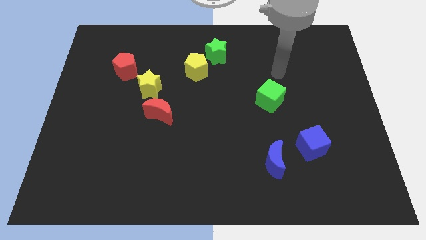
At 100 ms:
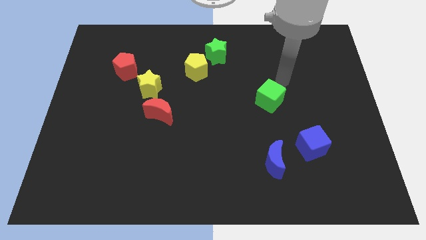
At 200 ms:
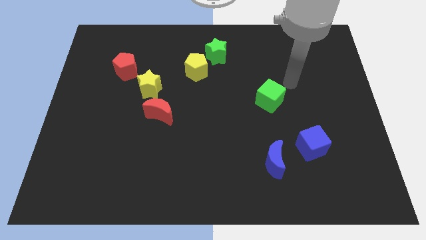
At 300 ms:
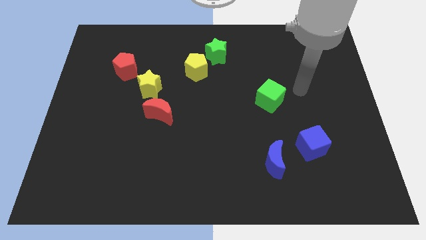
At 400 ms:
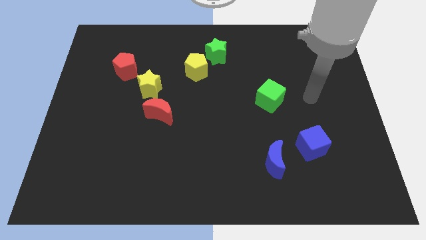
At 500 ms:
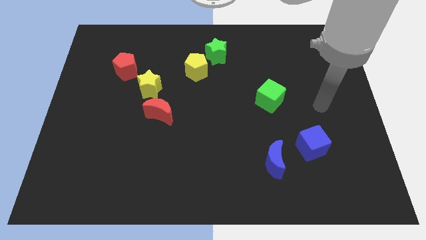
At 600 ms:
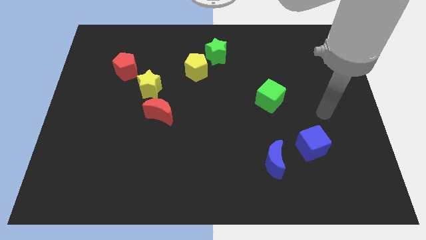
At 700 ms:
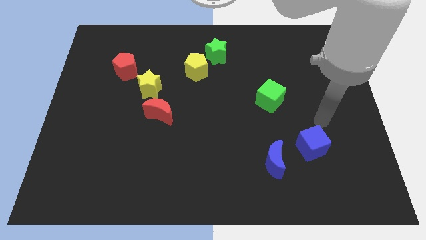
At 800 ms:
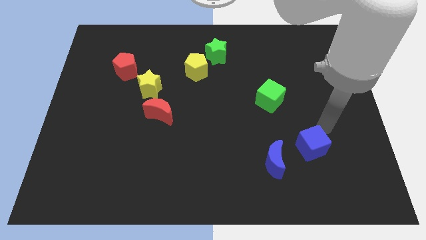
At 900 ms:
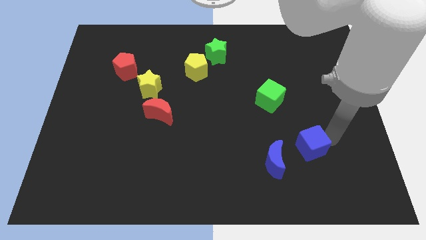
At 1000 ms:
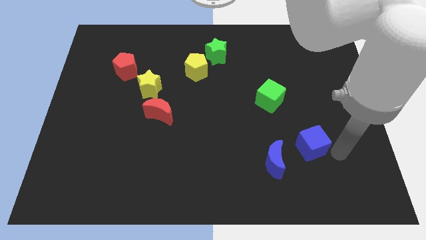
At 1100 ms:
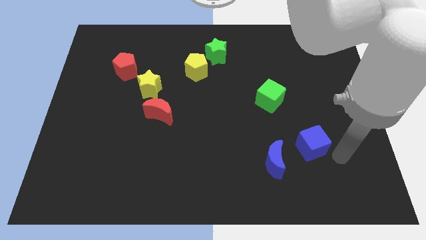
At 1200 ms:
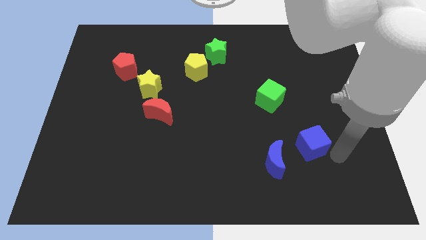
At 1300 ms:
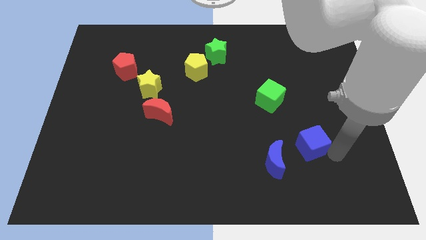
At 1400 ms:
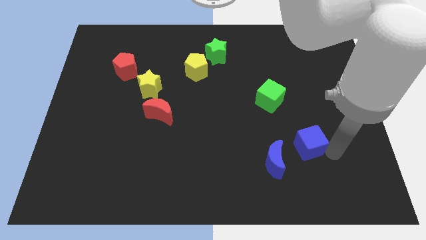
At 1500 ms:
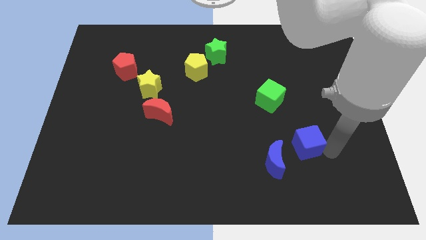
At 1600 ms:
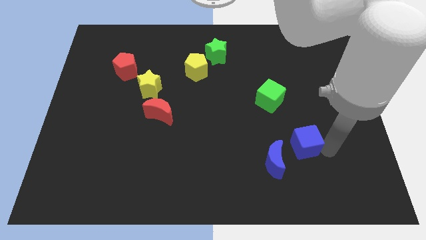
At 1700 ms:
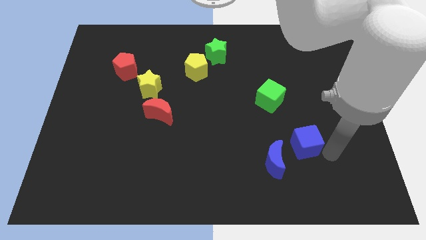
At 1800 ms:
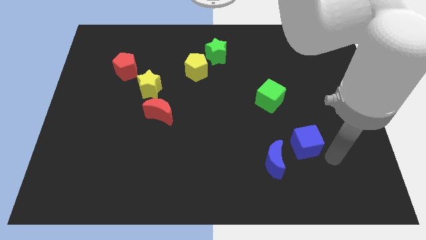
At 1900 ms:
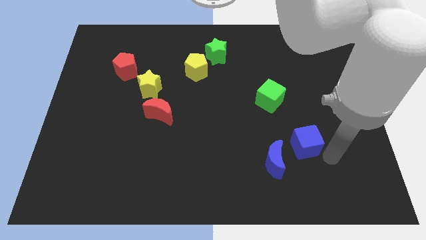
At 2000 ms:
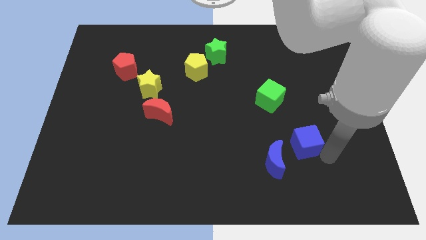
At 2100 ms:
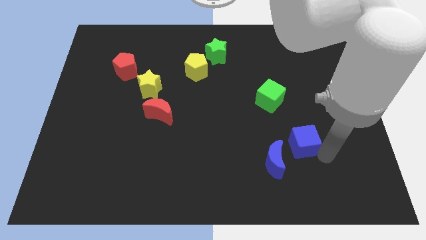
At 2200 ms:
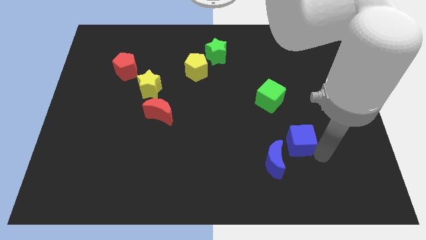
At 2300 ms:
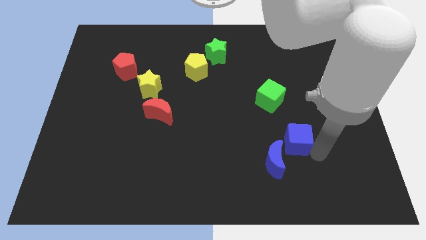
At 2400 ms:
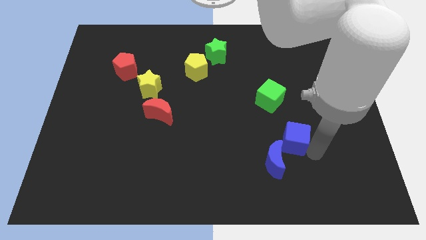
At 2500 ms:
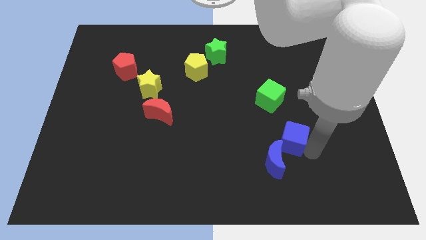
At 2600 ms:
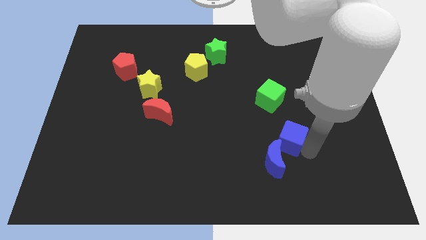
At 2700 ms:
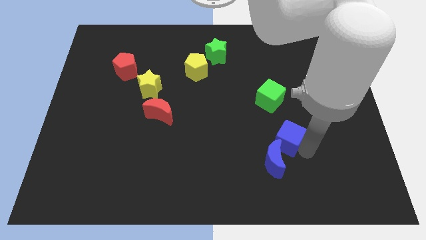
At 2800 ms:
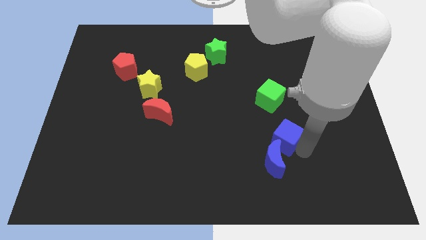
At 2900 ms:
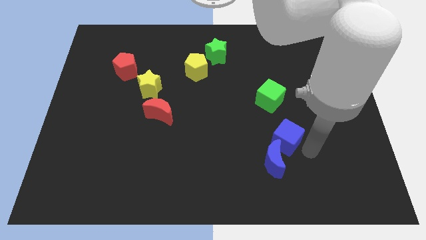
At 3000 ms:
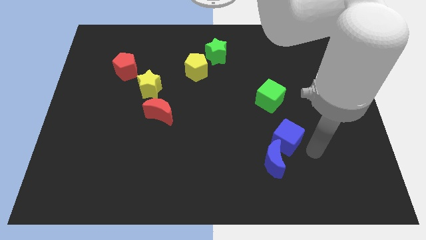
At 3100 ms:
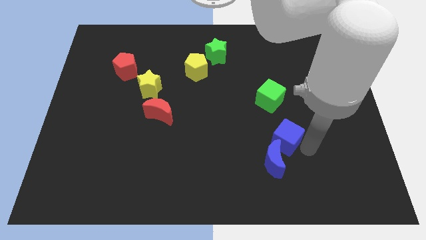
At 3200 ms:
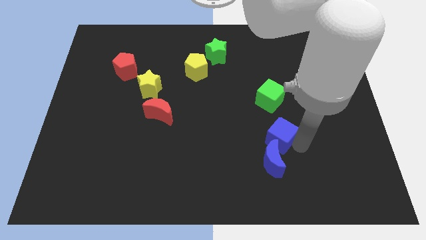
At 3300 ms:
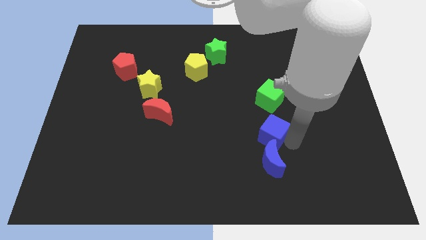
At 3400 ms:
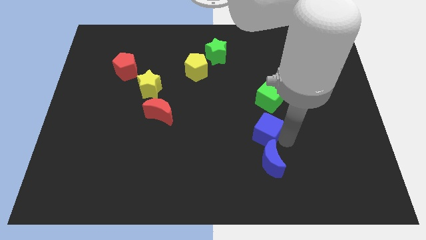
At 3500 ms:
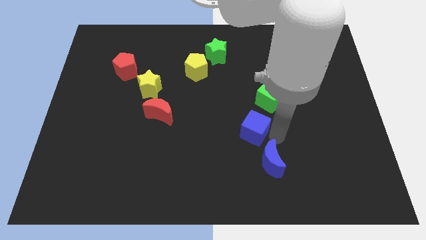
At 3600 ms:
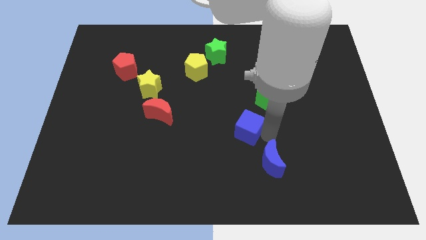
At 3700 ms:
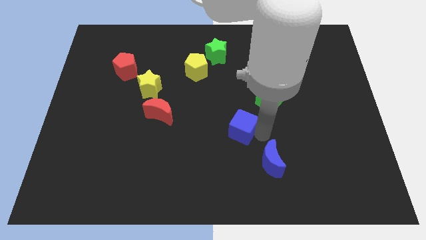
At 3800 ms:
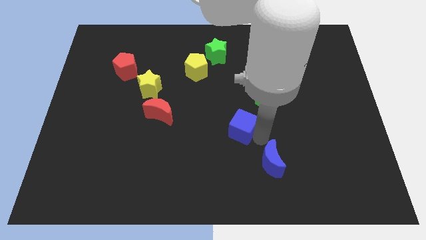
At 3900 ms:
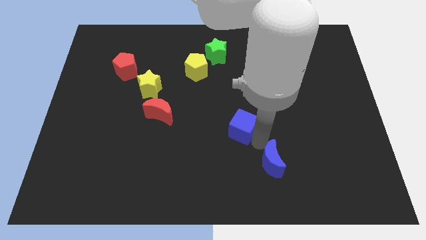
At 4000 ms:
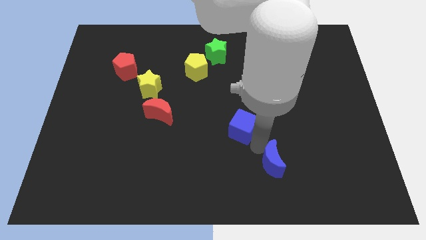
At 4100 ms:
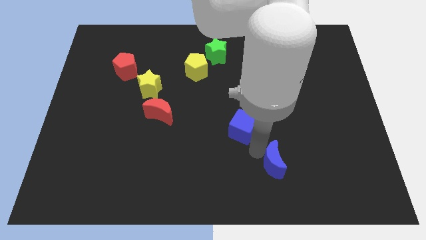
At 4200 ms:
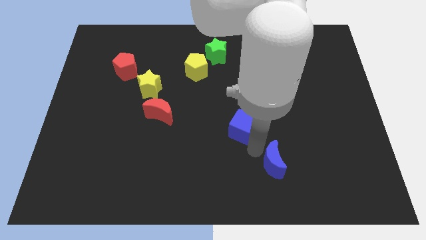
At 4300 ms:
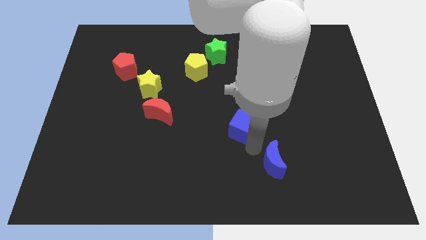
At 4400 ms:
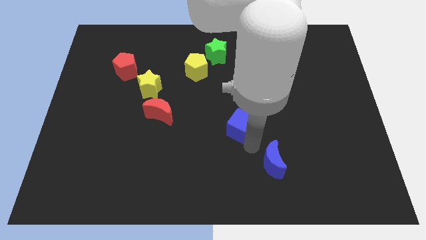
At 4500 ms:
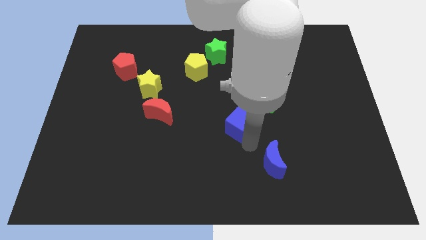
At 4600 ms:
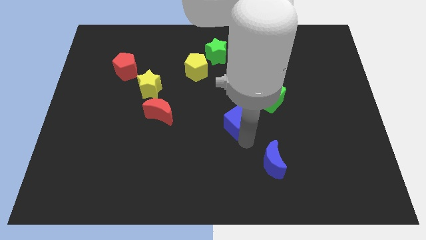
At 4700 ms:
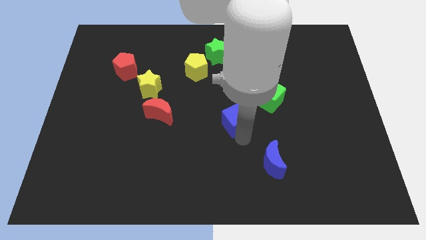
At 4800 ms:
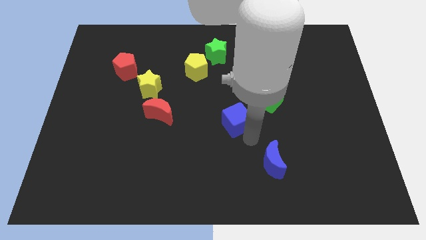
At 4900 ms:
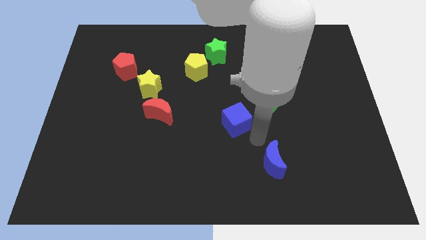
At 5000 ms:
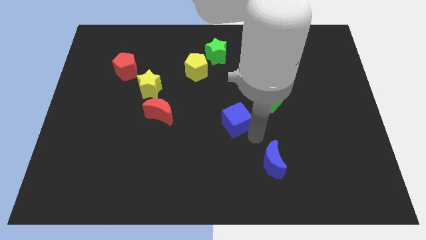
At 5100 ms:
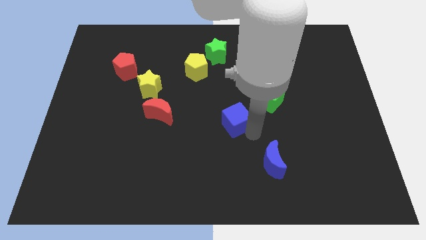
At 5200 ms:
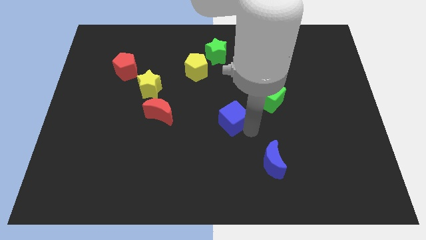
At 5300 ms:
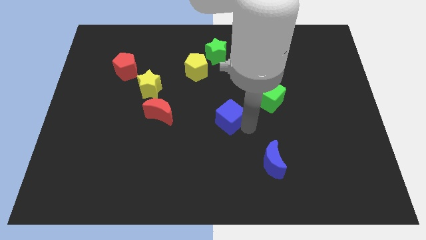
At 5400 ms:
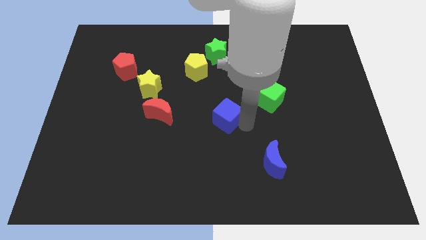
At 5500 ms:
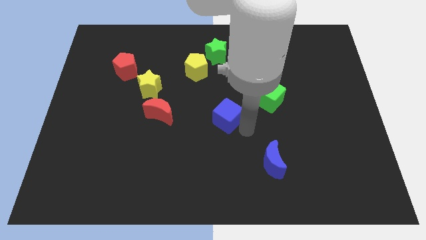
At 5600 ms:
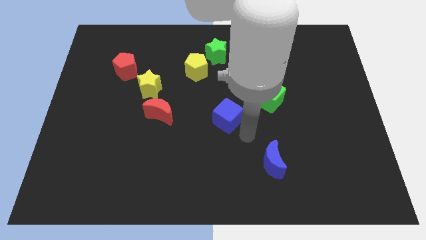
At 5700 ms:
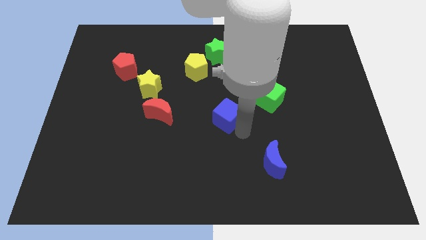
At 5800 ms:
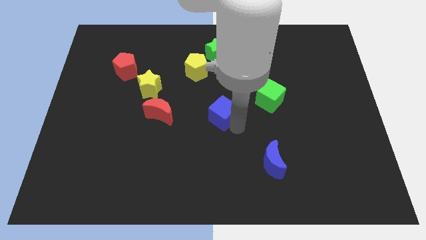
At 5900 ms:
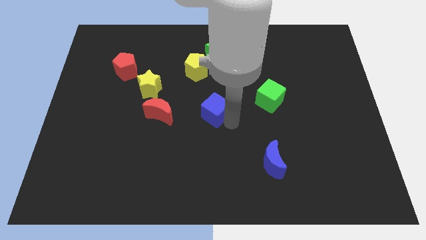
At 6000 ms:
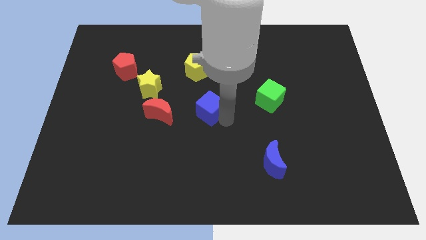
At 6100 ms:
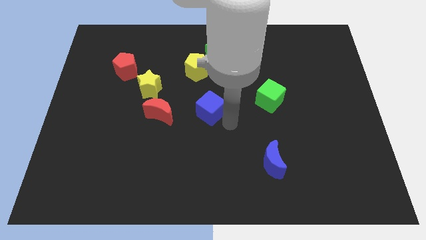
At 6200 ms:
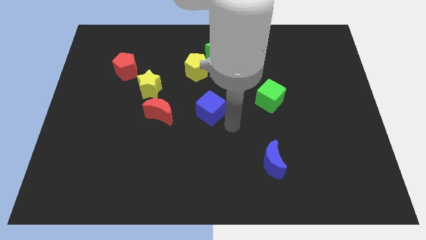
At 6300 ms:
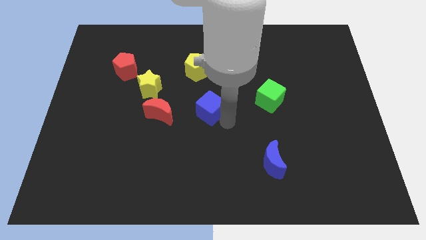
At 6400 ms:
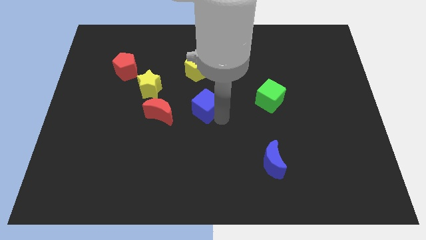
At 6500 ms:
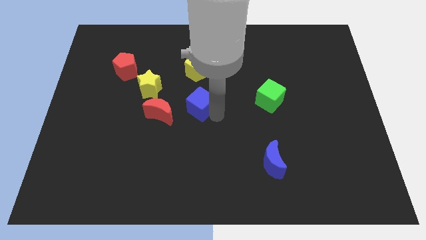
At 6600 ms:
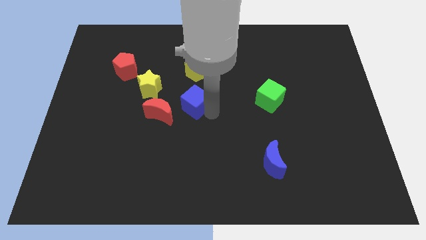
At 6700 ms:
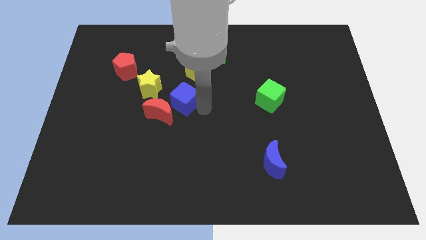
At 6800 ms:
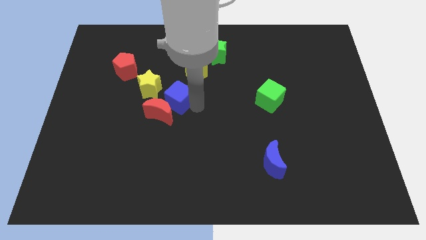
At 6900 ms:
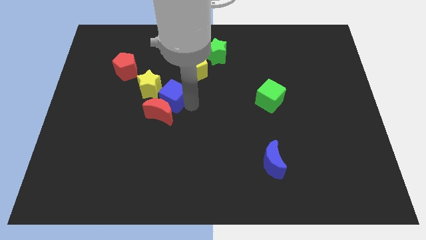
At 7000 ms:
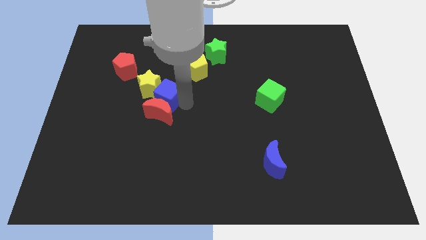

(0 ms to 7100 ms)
put the blue cube next to the yellow star

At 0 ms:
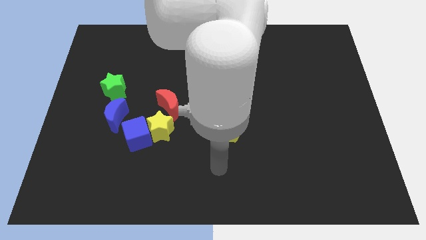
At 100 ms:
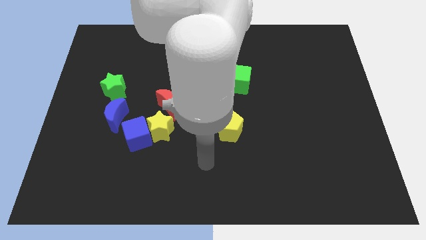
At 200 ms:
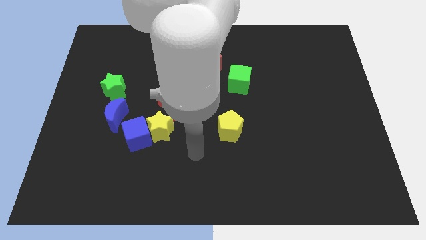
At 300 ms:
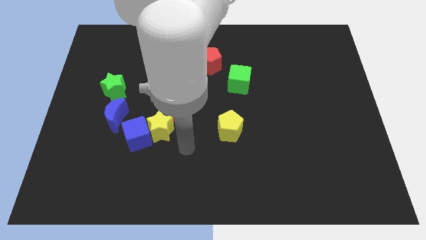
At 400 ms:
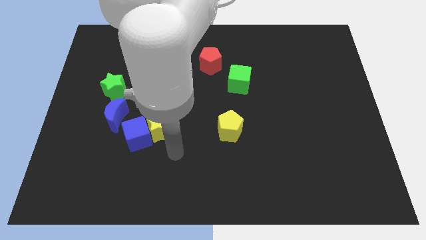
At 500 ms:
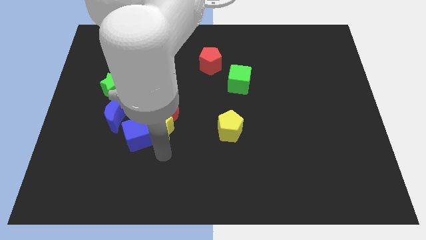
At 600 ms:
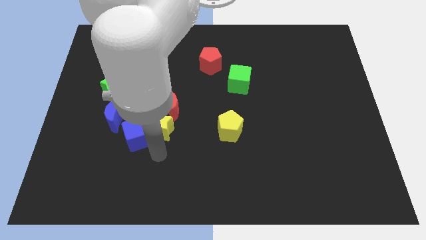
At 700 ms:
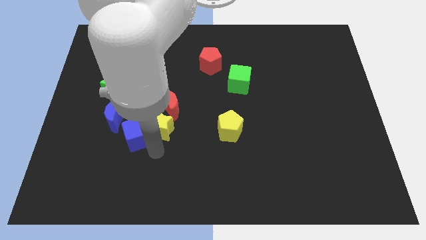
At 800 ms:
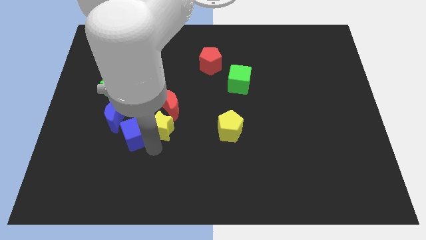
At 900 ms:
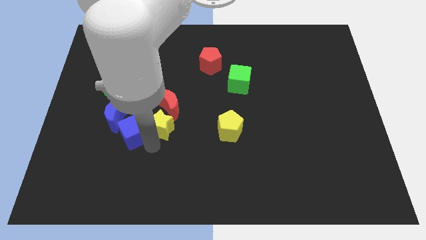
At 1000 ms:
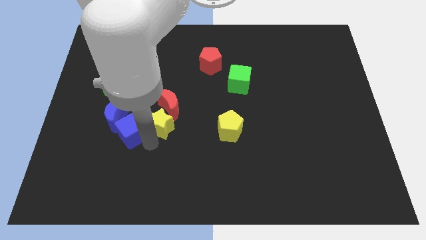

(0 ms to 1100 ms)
slide the blue cube close to the blue moon
